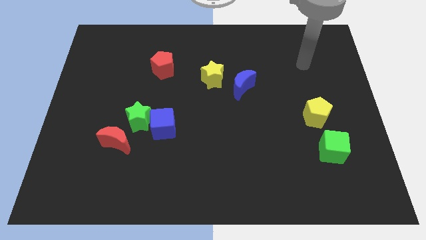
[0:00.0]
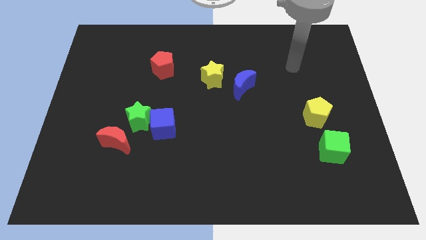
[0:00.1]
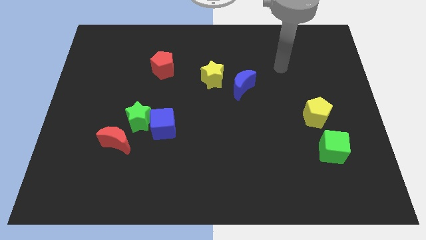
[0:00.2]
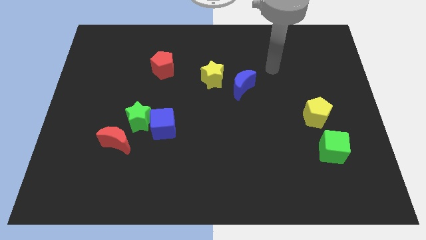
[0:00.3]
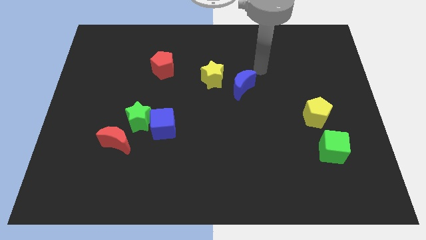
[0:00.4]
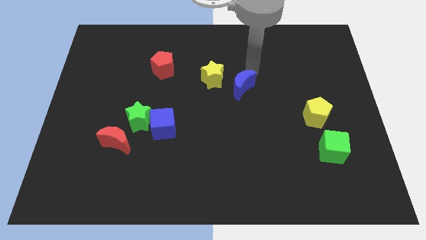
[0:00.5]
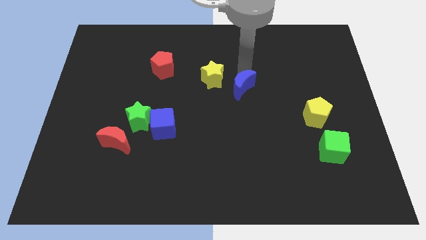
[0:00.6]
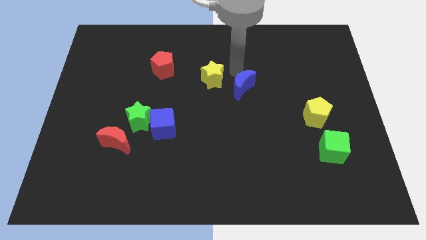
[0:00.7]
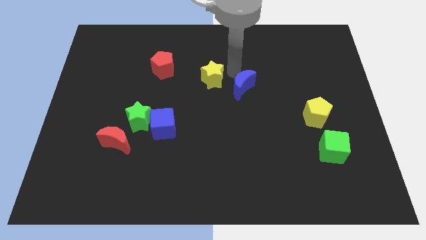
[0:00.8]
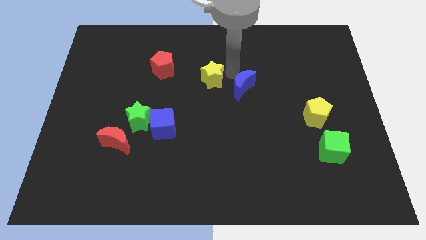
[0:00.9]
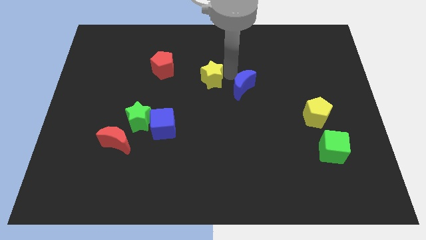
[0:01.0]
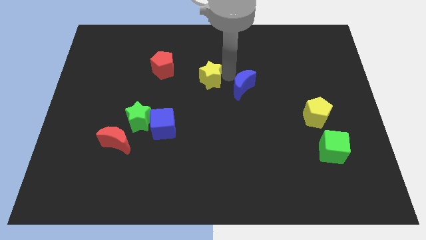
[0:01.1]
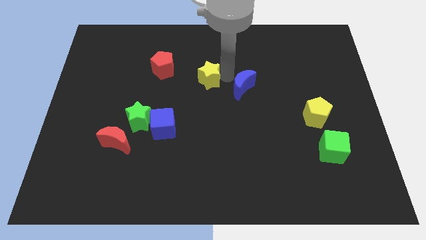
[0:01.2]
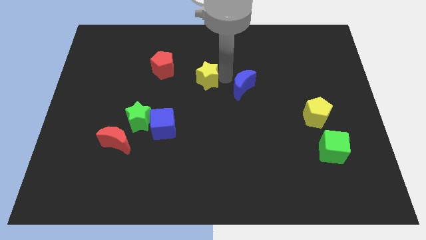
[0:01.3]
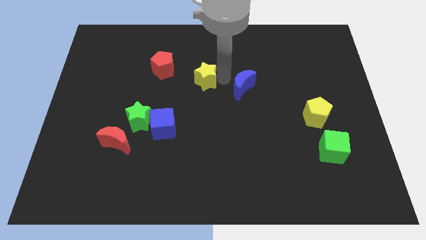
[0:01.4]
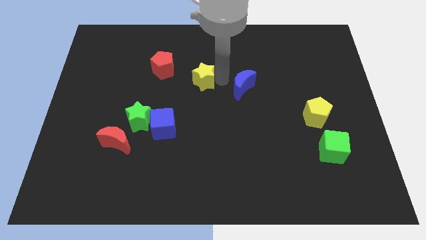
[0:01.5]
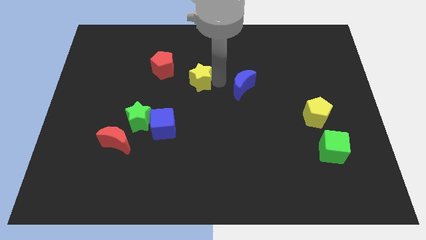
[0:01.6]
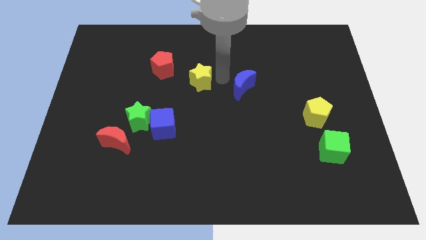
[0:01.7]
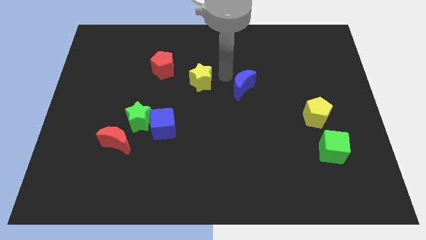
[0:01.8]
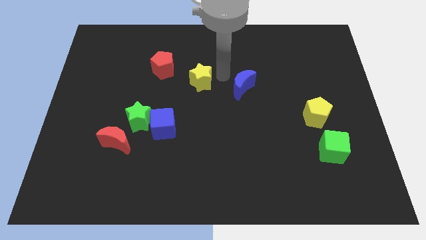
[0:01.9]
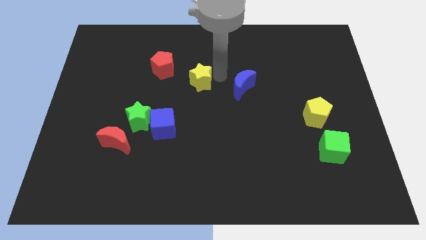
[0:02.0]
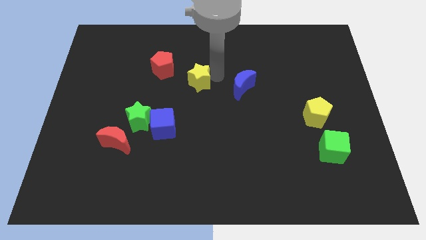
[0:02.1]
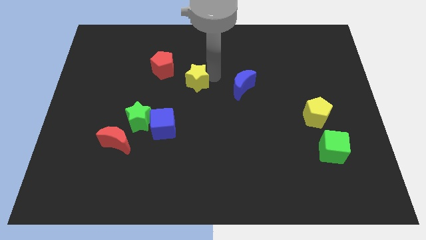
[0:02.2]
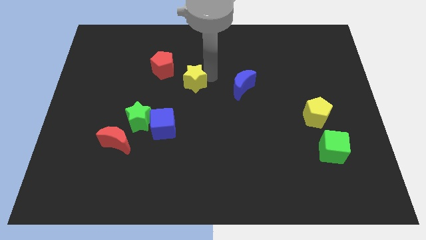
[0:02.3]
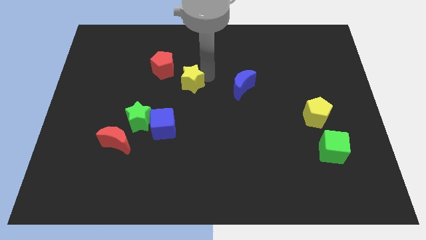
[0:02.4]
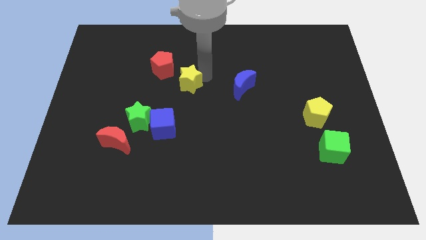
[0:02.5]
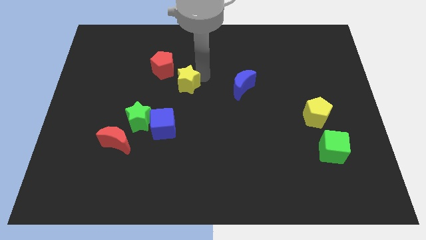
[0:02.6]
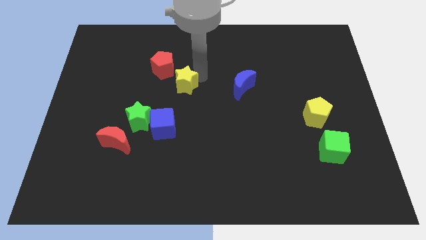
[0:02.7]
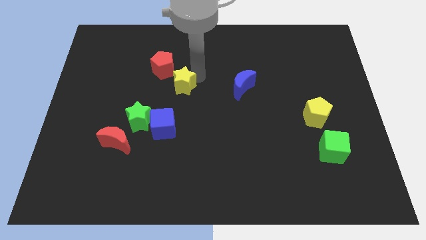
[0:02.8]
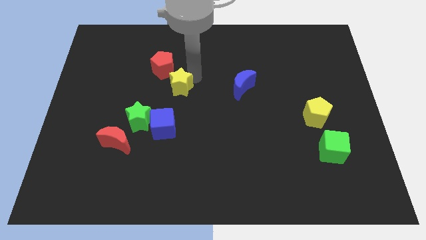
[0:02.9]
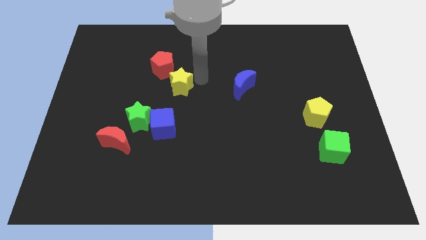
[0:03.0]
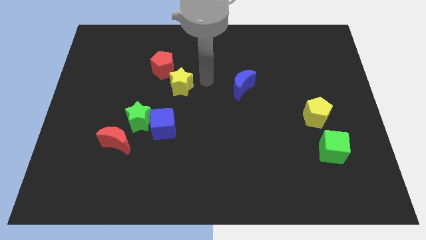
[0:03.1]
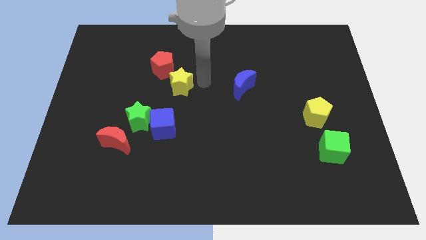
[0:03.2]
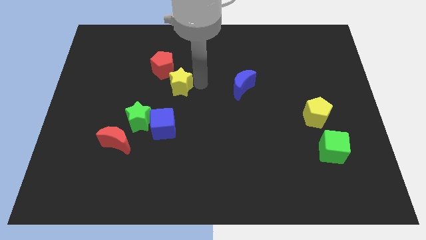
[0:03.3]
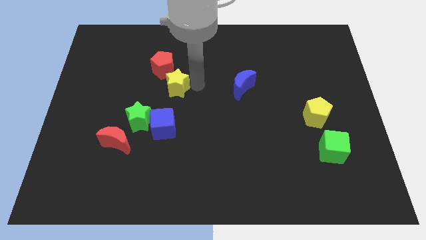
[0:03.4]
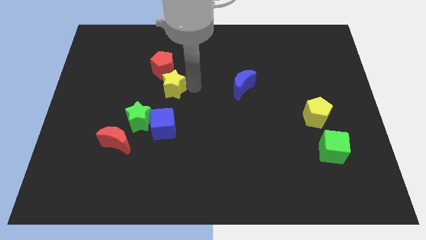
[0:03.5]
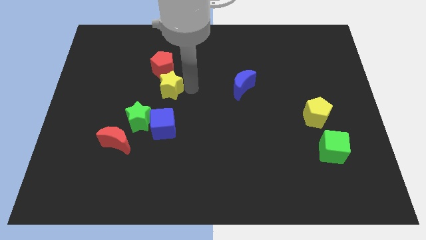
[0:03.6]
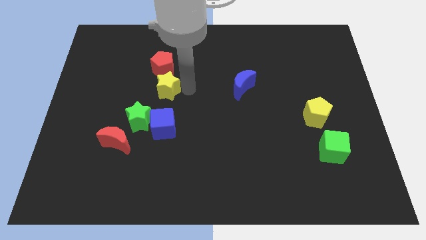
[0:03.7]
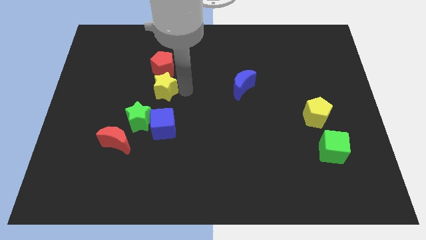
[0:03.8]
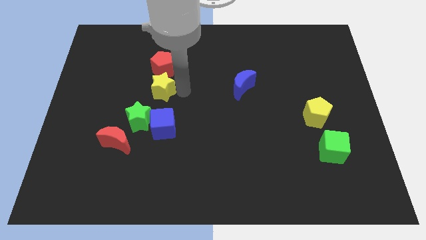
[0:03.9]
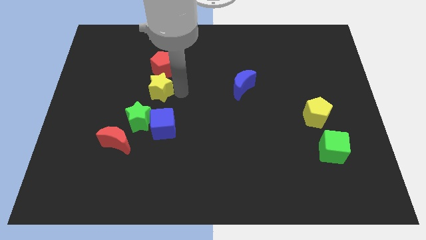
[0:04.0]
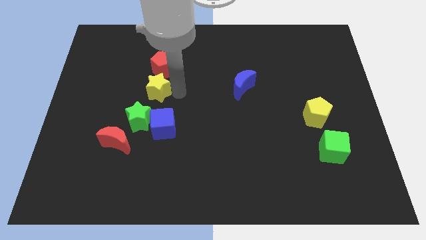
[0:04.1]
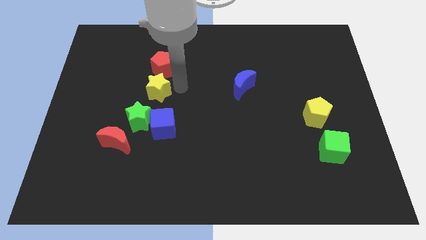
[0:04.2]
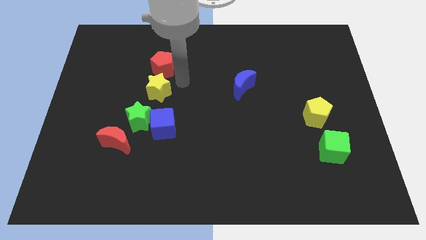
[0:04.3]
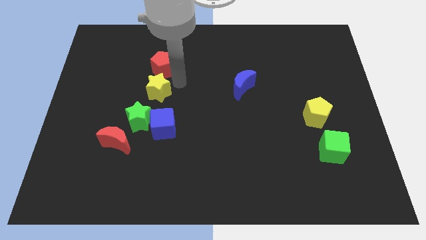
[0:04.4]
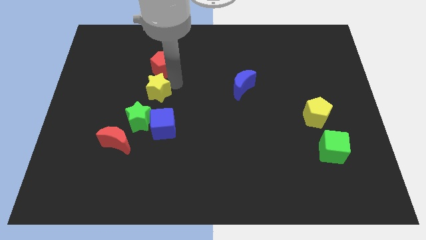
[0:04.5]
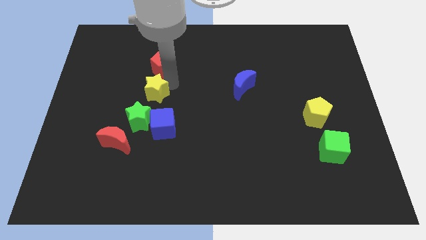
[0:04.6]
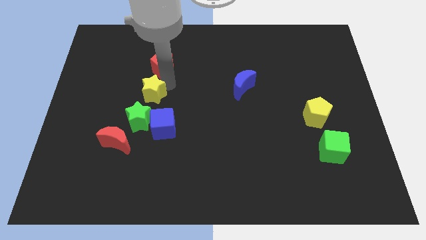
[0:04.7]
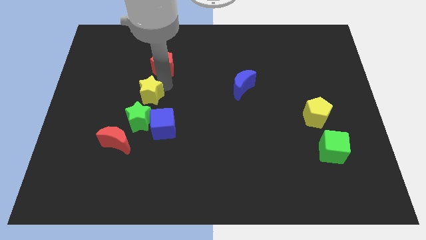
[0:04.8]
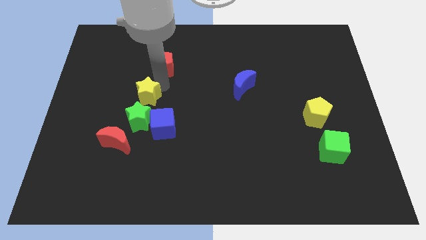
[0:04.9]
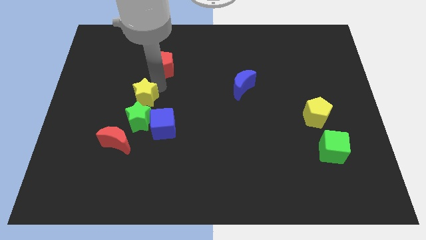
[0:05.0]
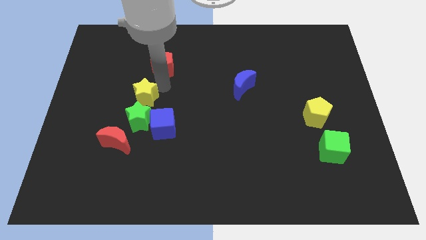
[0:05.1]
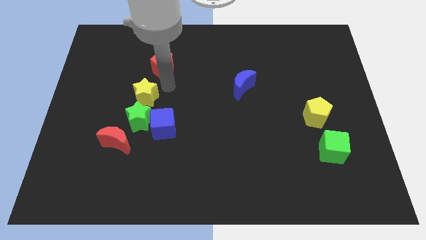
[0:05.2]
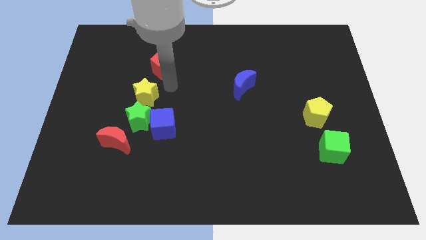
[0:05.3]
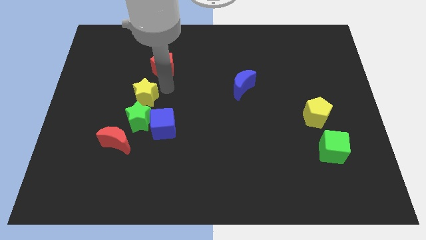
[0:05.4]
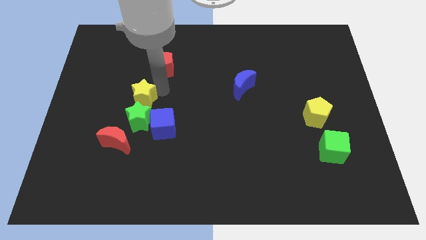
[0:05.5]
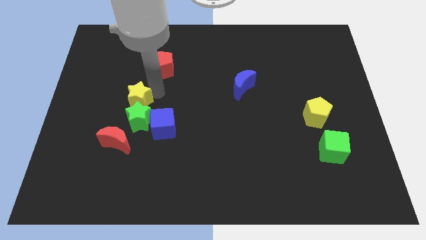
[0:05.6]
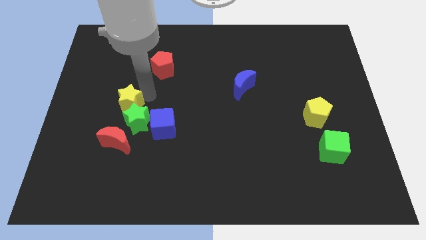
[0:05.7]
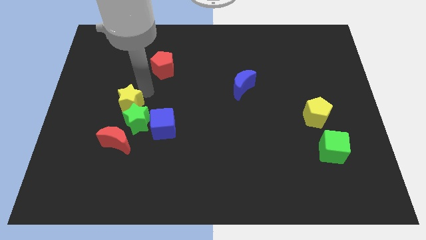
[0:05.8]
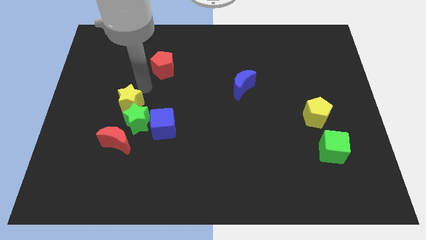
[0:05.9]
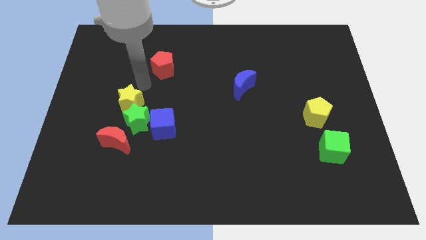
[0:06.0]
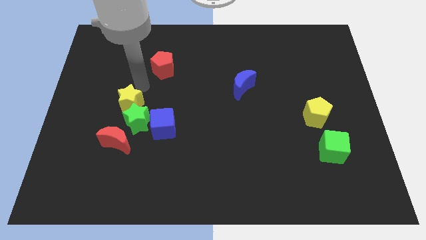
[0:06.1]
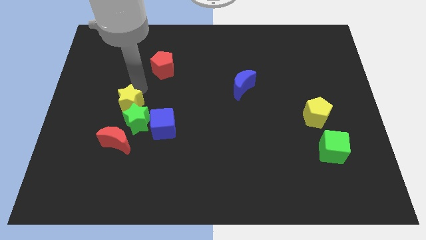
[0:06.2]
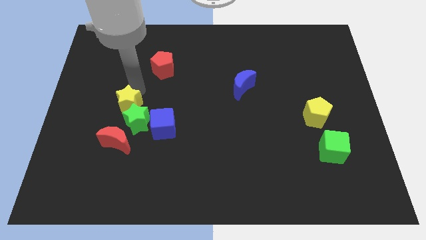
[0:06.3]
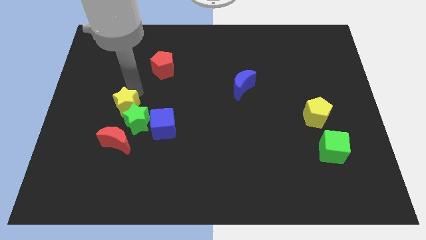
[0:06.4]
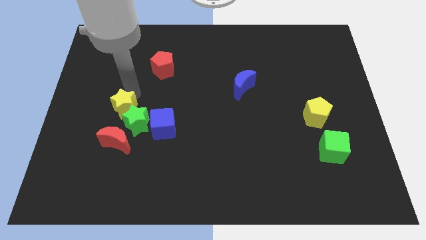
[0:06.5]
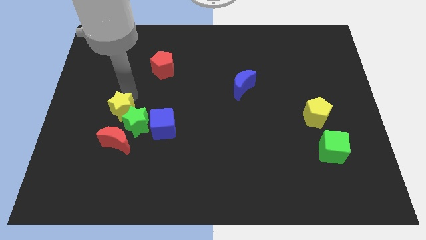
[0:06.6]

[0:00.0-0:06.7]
put the yellow star left of the blue cube

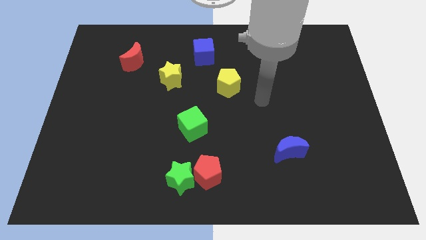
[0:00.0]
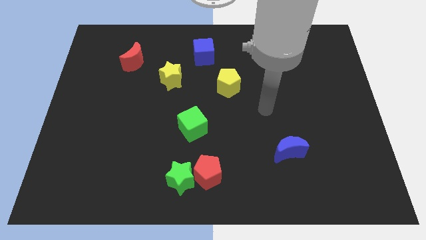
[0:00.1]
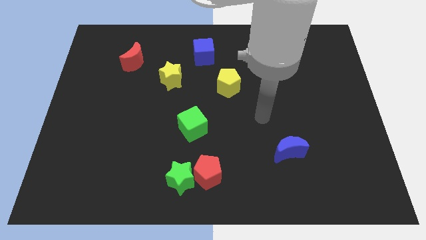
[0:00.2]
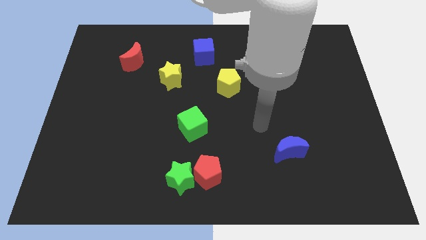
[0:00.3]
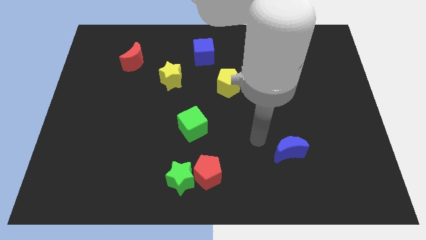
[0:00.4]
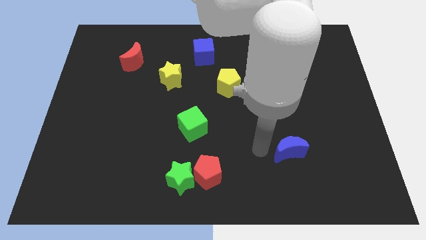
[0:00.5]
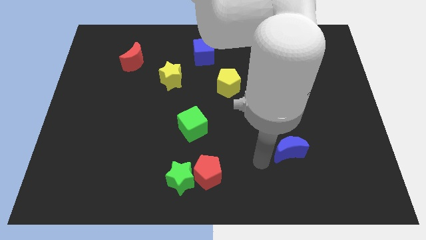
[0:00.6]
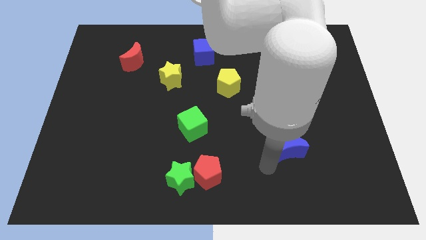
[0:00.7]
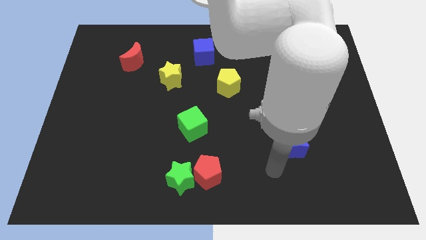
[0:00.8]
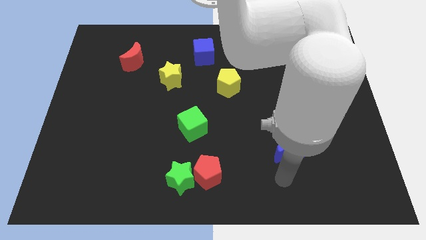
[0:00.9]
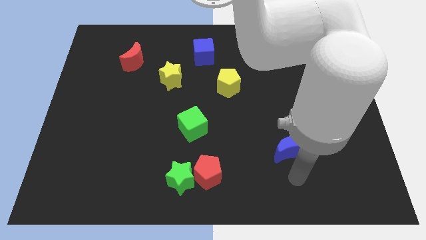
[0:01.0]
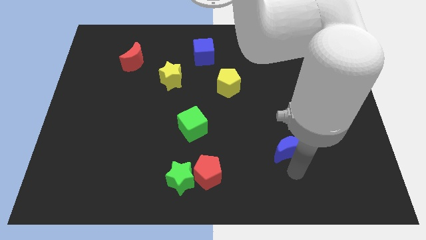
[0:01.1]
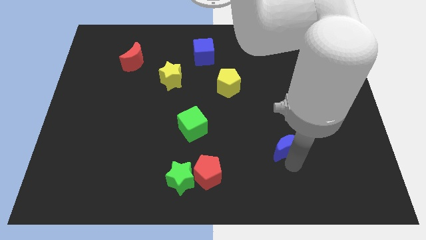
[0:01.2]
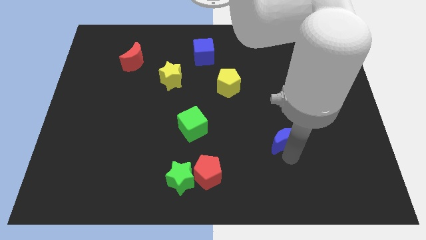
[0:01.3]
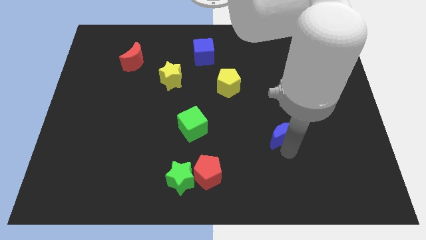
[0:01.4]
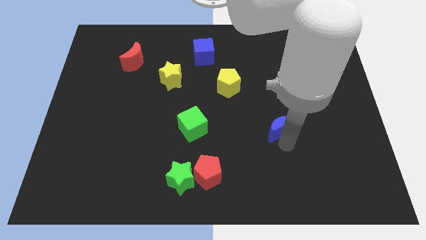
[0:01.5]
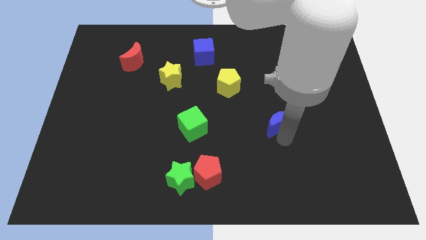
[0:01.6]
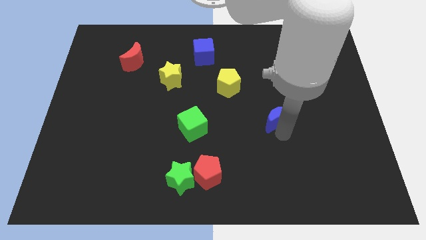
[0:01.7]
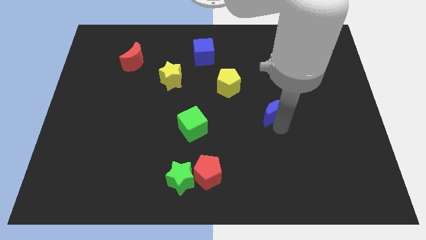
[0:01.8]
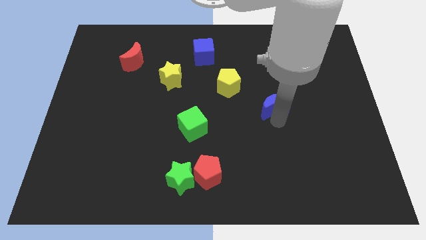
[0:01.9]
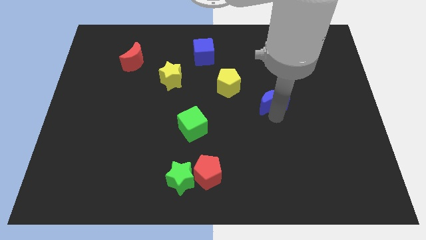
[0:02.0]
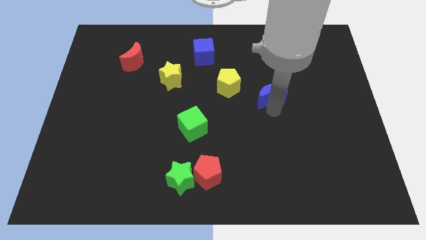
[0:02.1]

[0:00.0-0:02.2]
put the blue moon just right of the yellow pentagon
